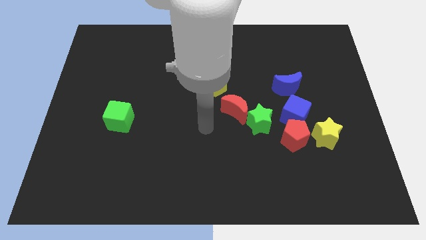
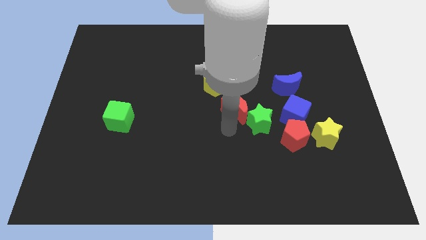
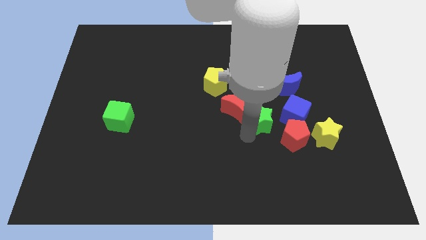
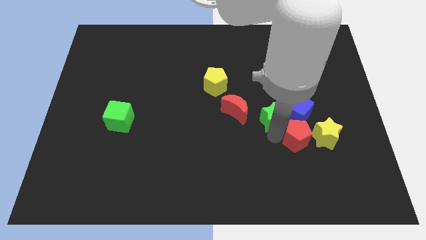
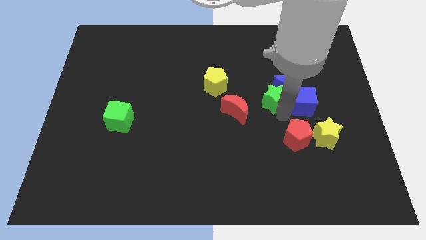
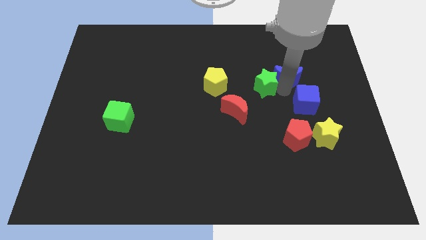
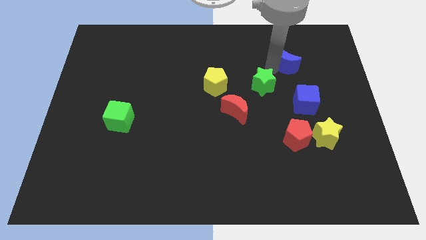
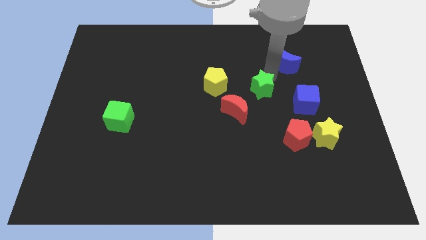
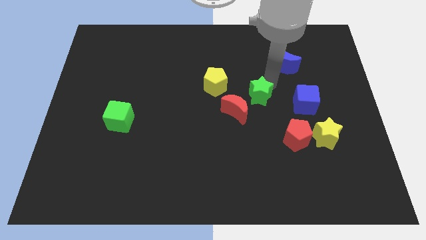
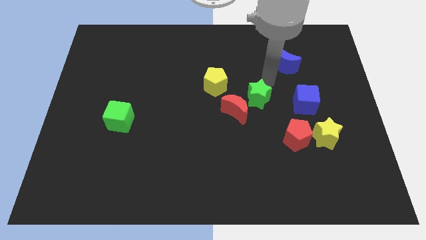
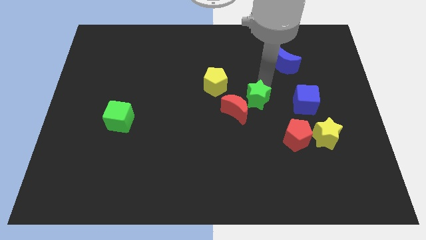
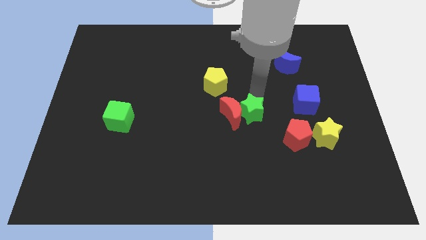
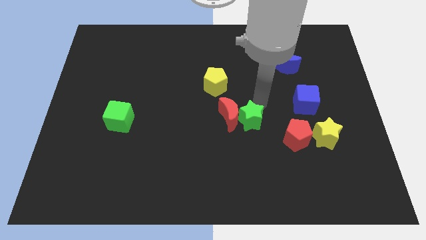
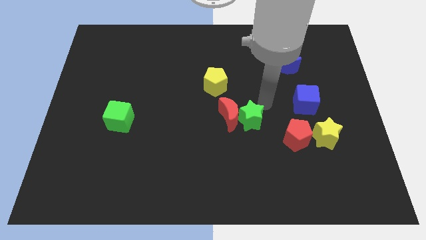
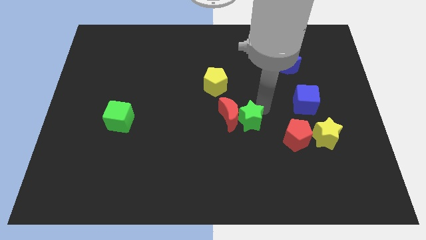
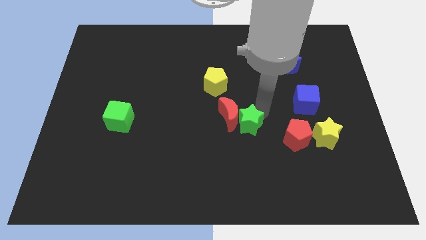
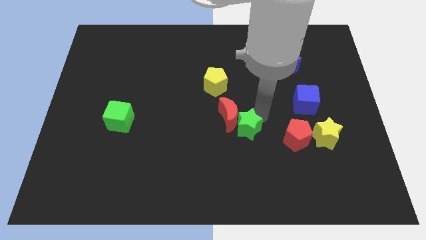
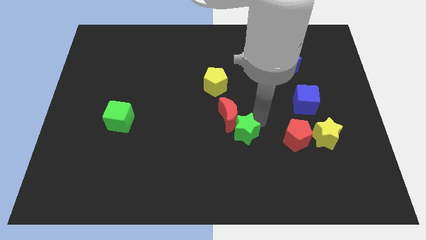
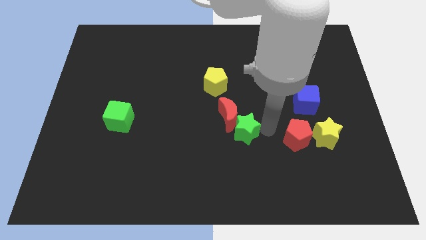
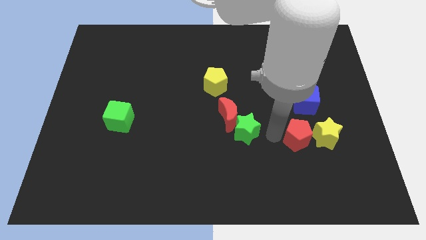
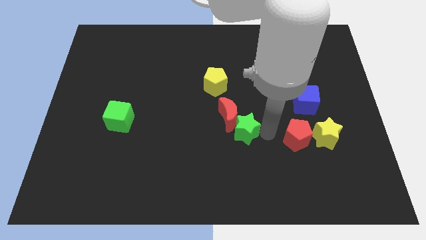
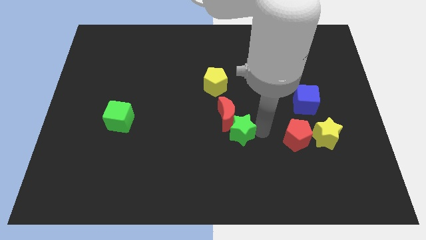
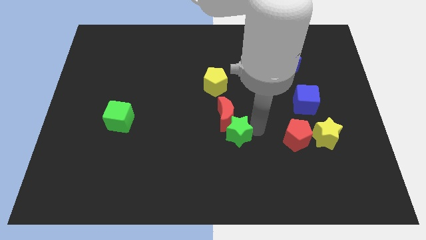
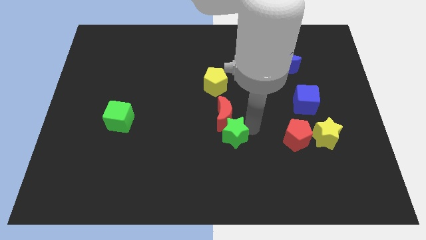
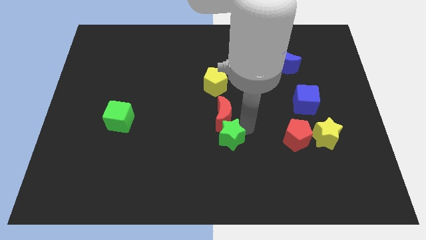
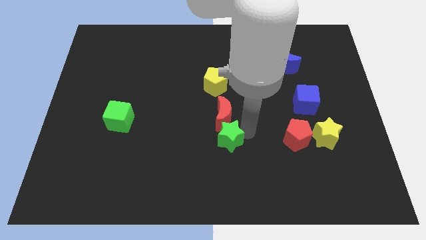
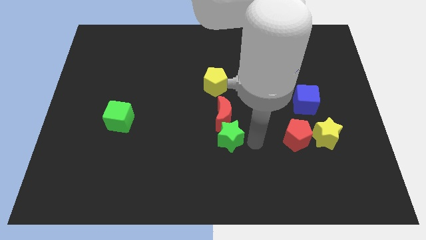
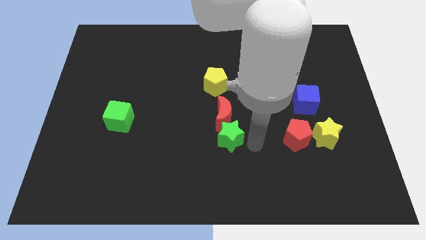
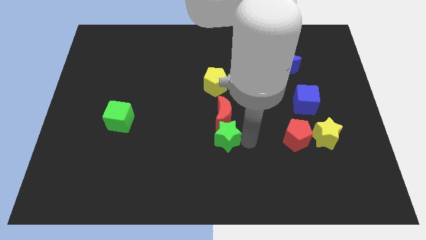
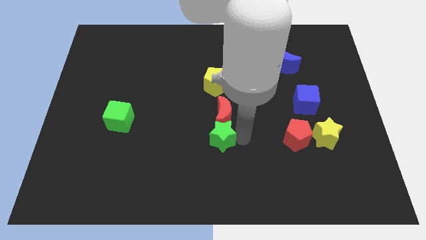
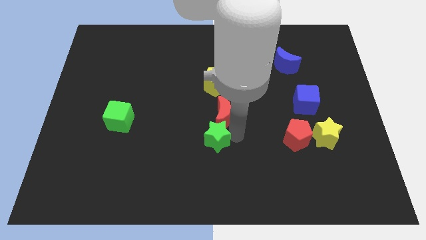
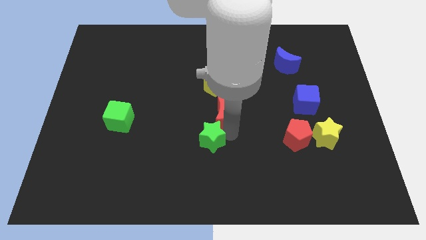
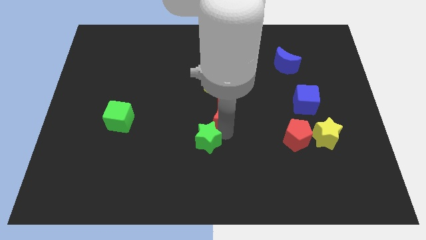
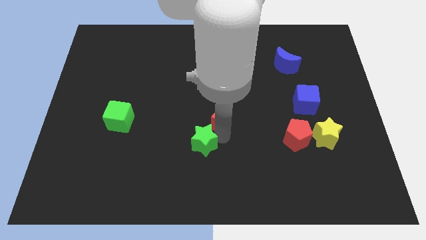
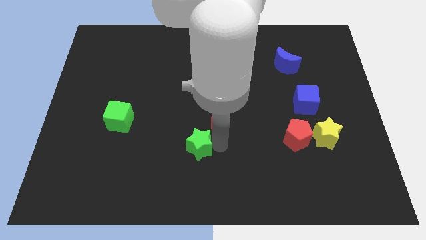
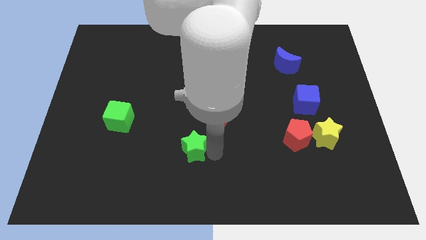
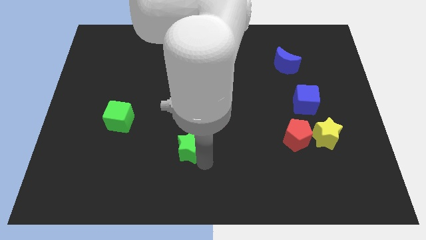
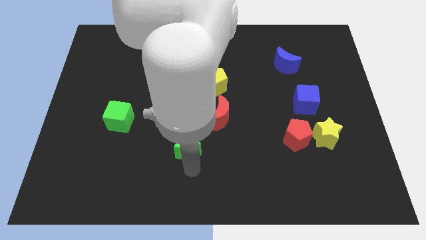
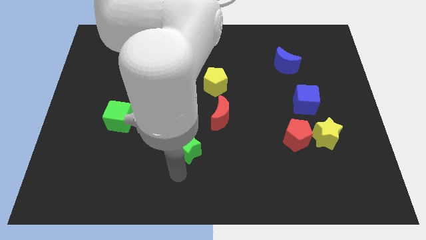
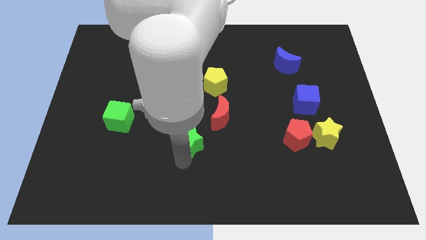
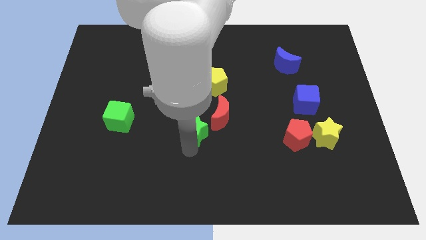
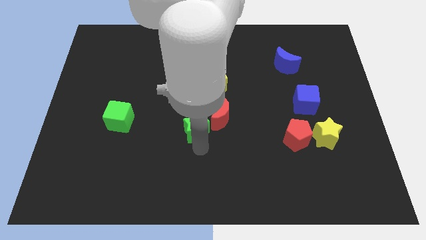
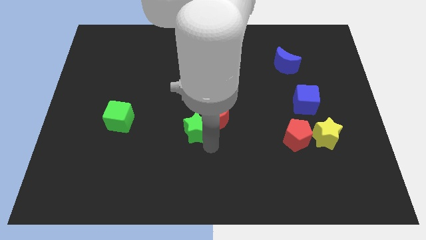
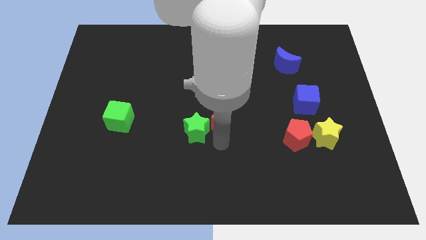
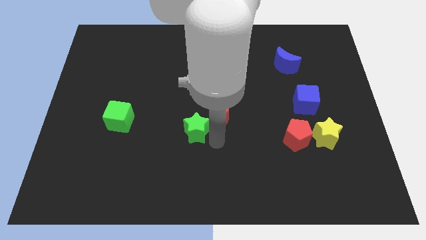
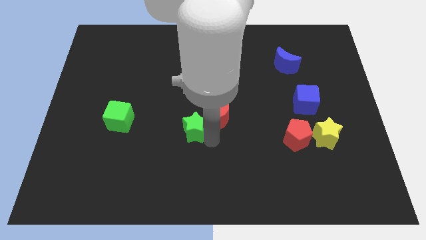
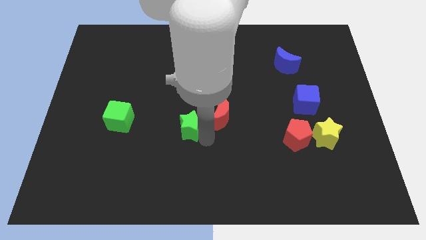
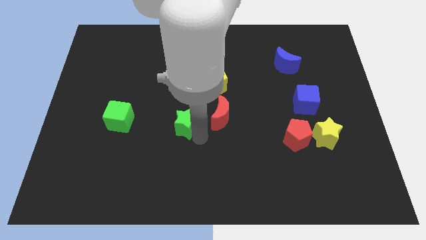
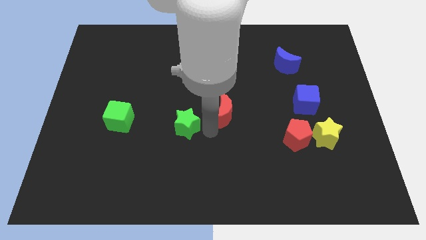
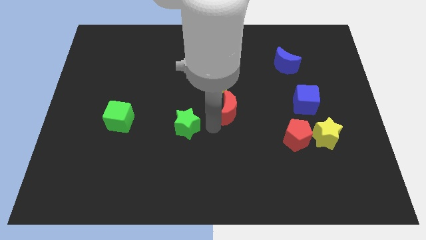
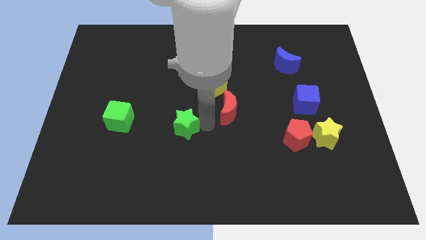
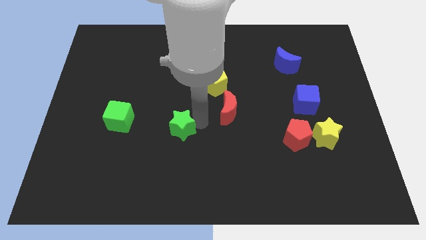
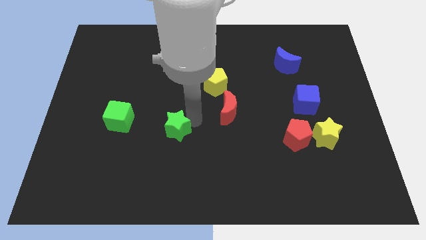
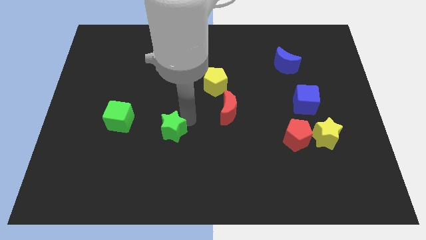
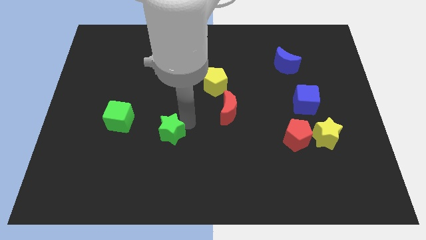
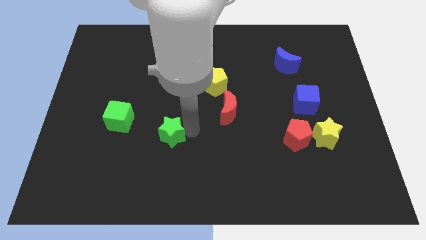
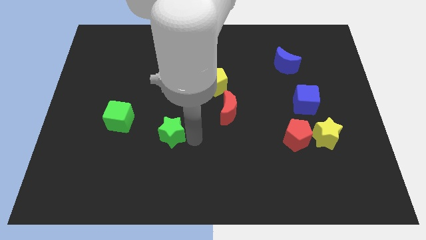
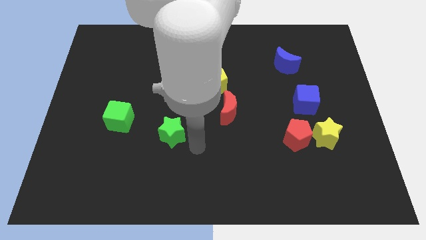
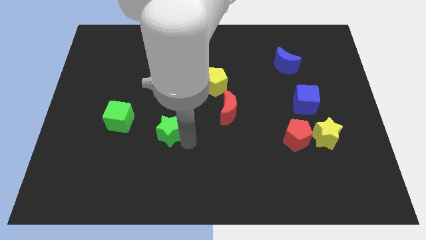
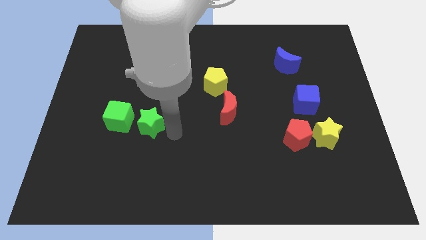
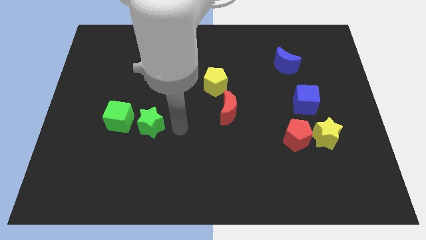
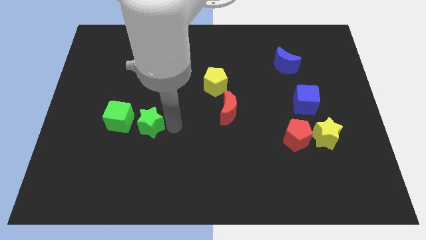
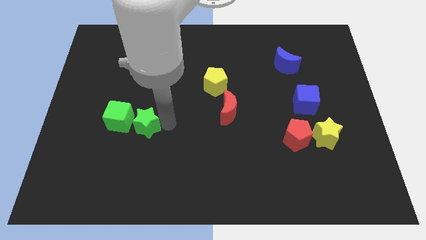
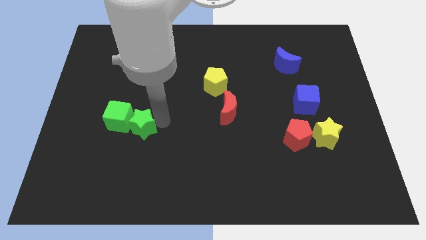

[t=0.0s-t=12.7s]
move the green star next to the green cube

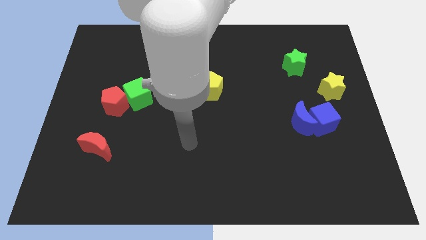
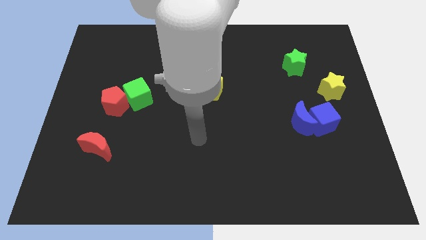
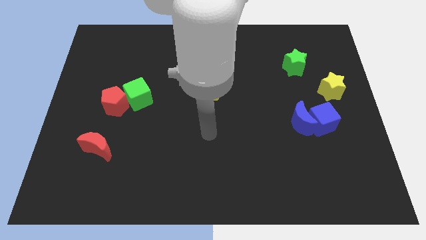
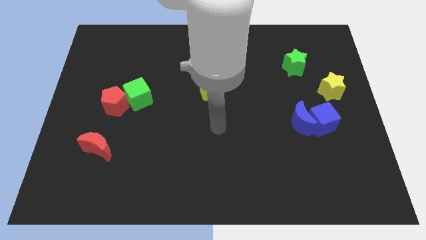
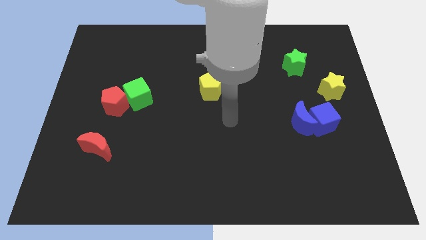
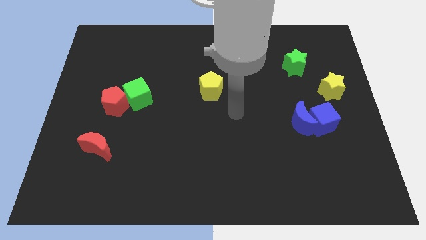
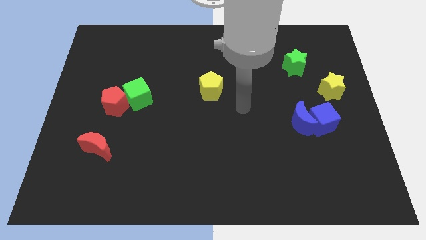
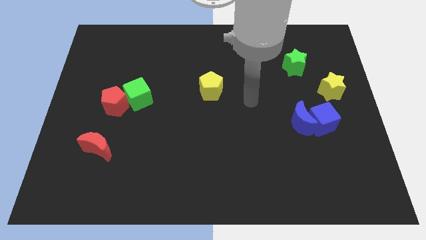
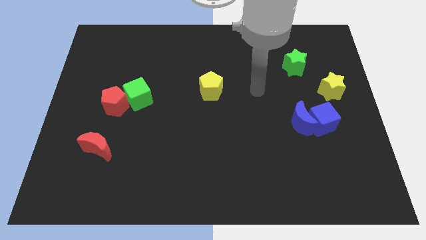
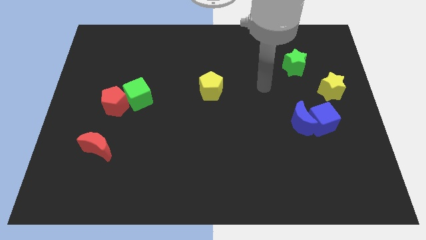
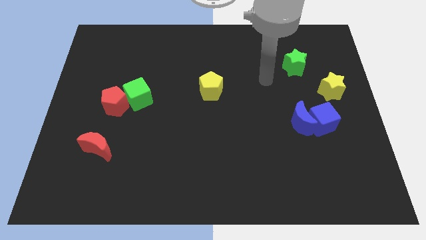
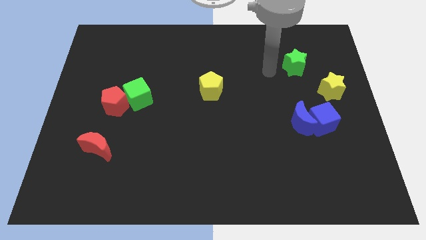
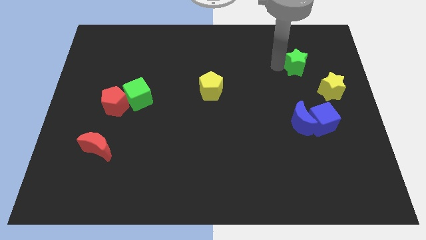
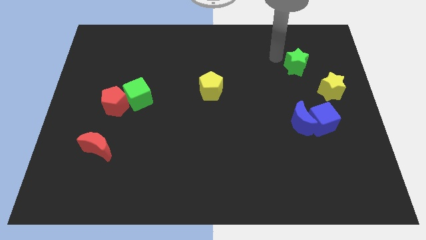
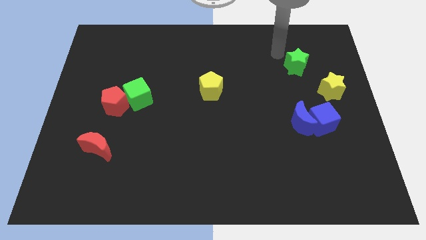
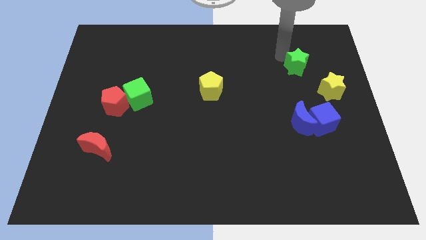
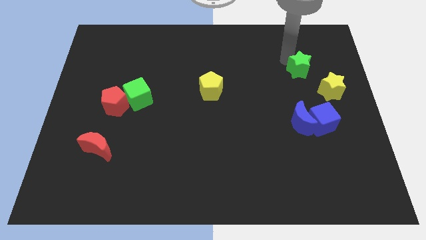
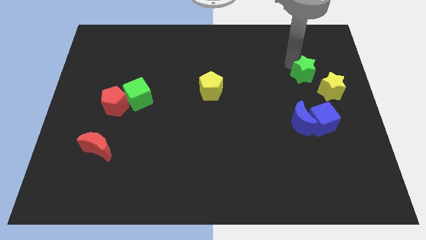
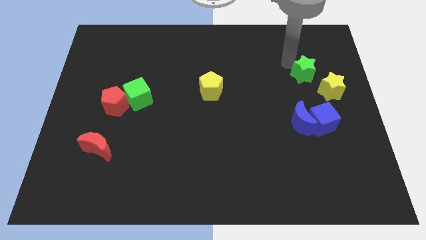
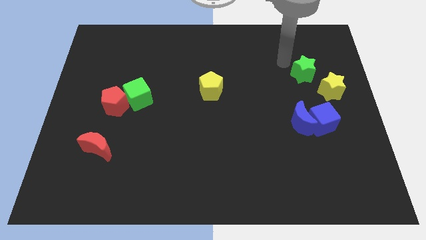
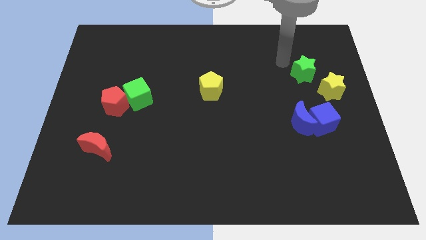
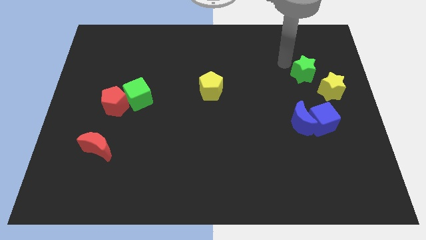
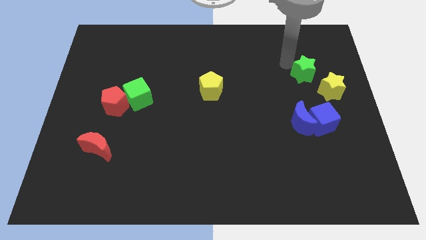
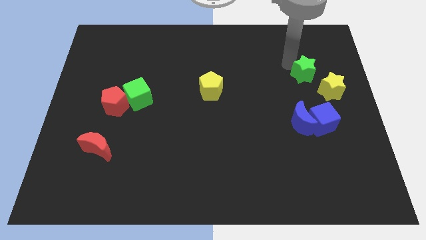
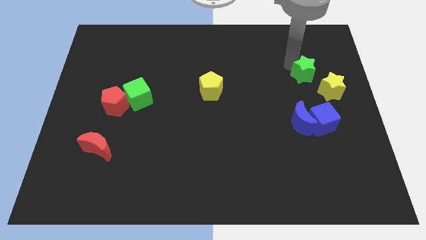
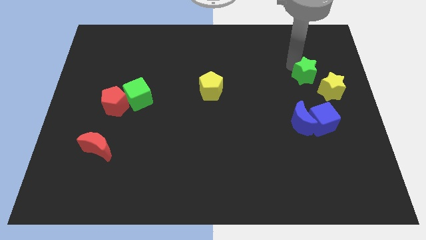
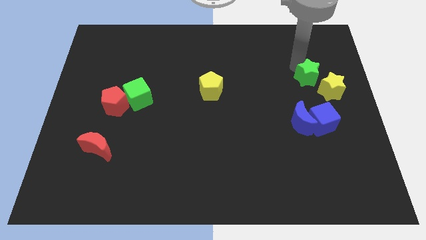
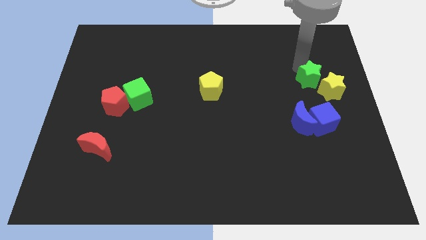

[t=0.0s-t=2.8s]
move the green star next to the yellow star
